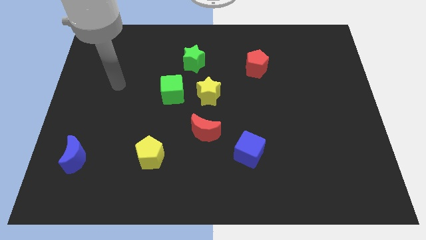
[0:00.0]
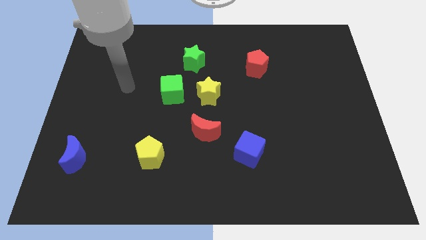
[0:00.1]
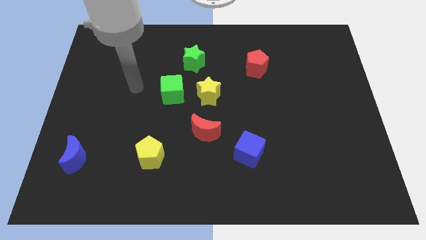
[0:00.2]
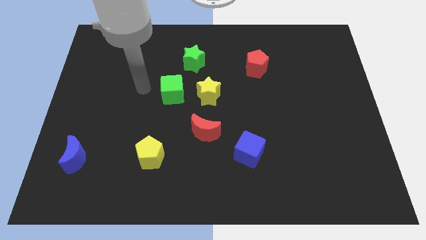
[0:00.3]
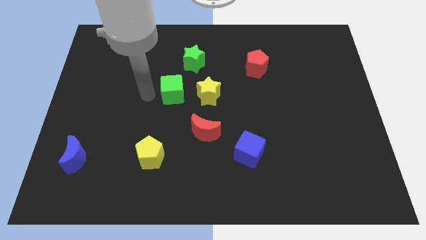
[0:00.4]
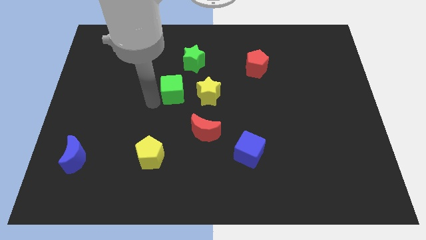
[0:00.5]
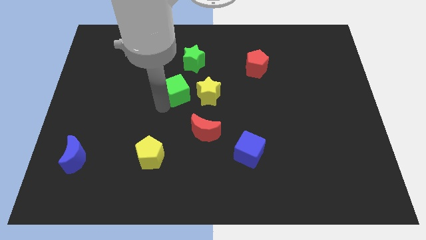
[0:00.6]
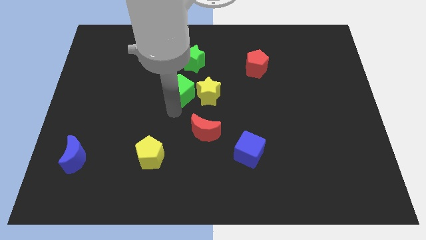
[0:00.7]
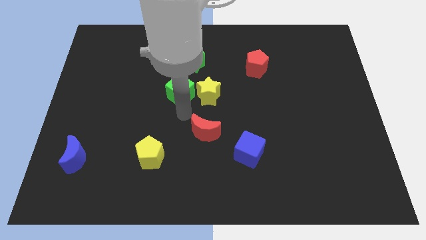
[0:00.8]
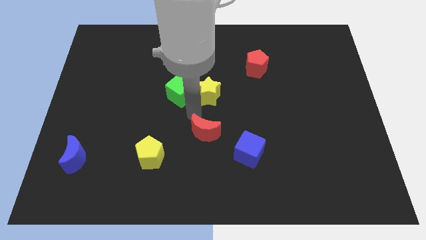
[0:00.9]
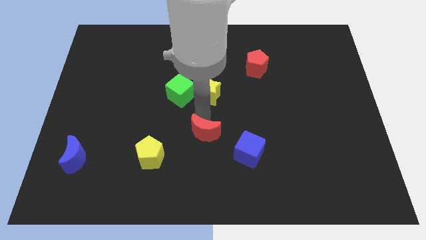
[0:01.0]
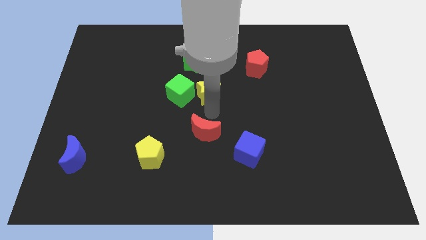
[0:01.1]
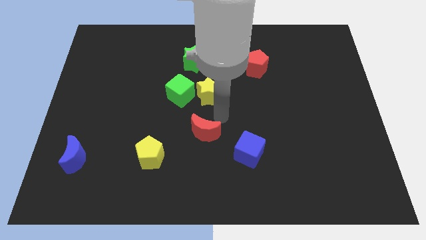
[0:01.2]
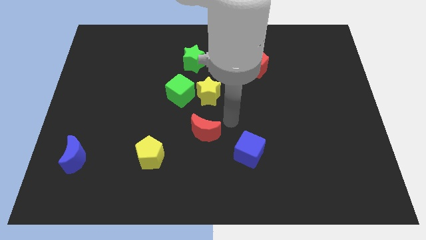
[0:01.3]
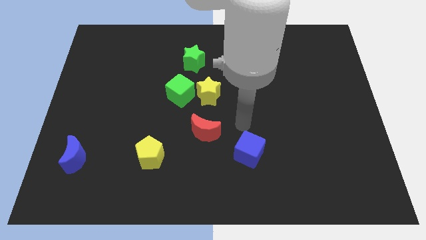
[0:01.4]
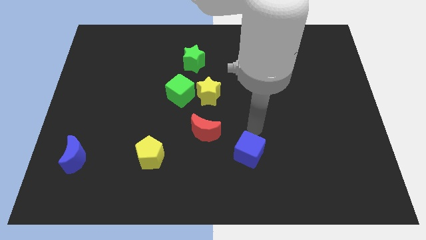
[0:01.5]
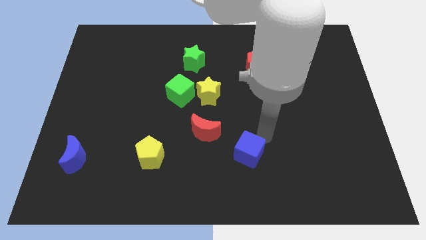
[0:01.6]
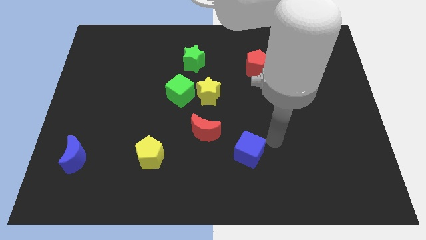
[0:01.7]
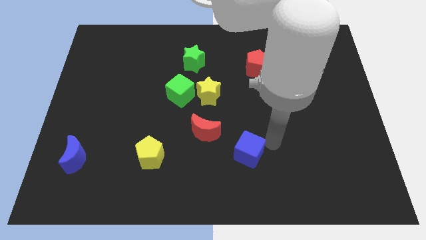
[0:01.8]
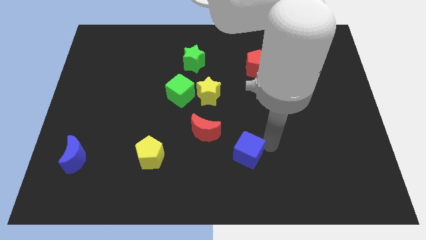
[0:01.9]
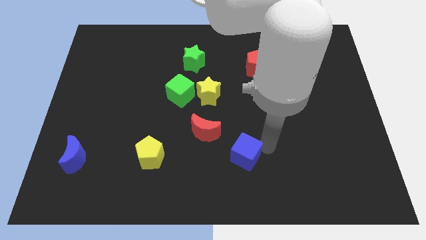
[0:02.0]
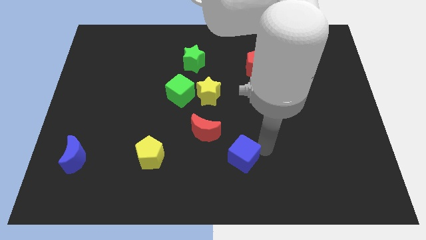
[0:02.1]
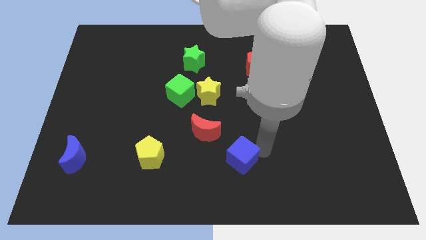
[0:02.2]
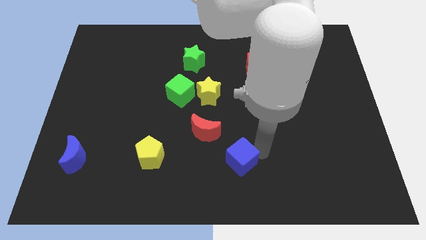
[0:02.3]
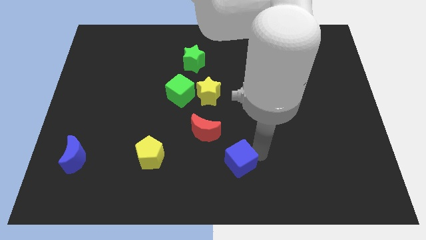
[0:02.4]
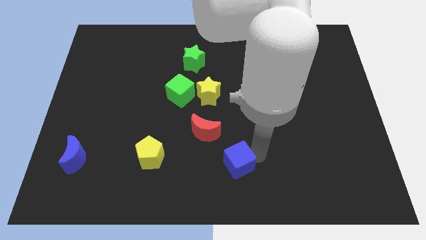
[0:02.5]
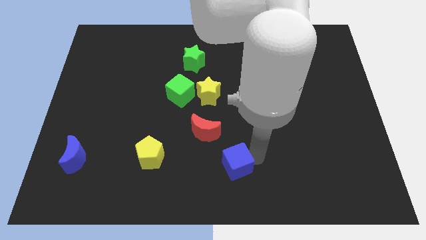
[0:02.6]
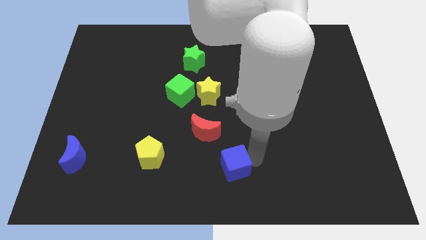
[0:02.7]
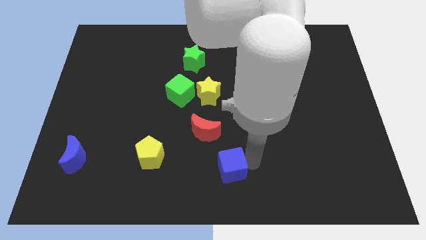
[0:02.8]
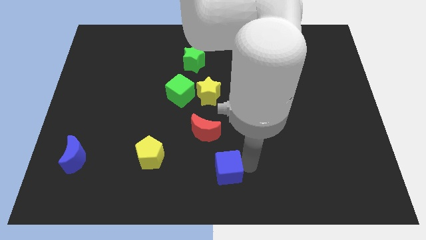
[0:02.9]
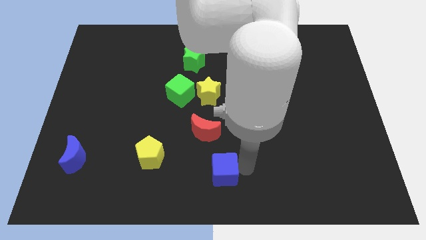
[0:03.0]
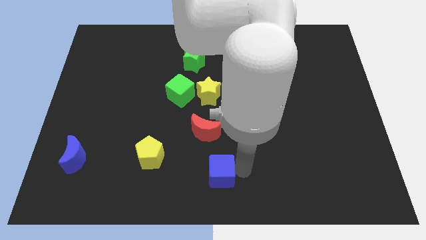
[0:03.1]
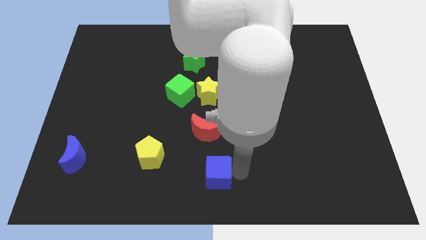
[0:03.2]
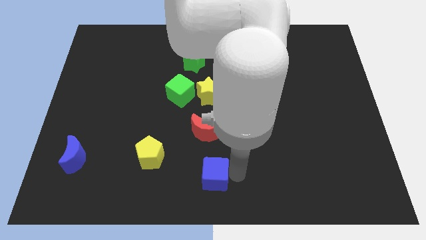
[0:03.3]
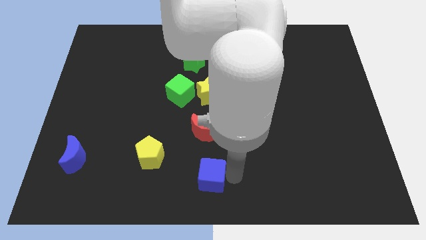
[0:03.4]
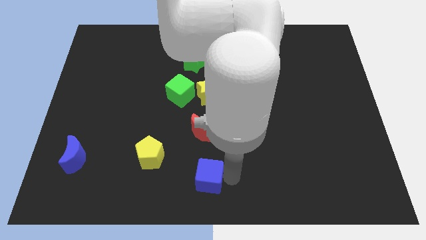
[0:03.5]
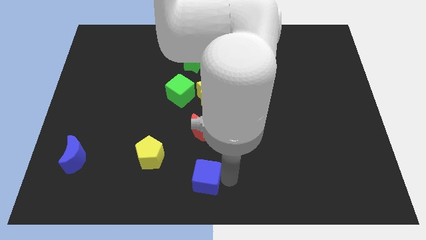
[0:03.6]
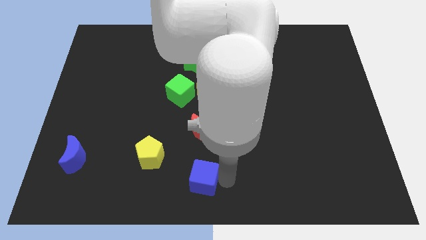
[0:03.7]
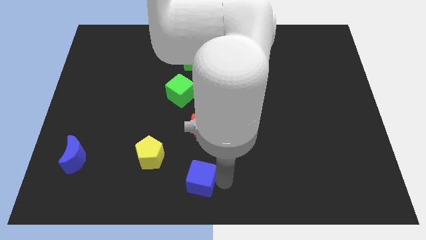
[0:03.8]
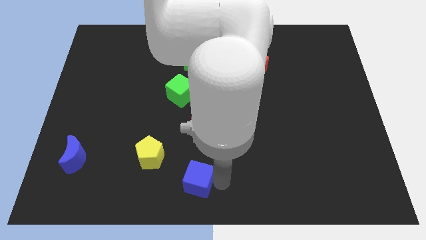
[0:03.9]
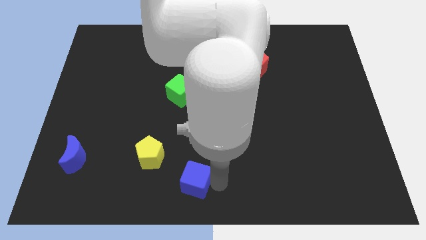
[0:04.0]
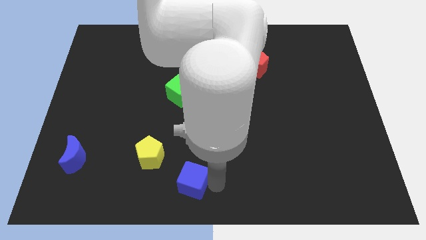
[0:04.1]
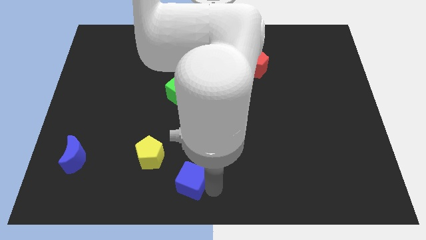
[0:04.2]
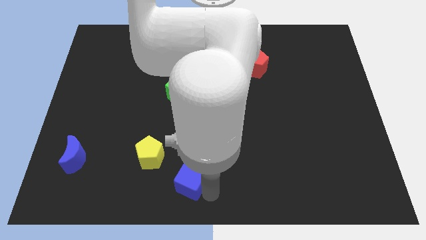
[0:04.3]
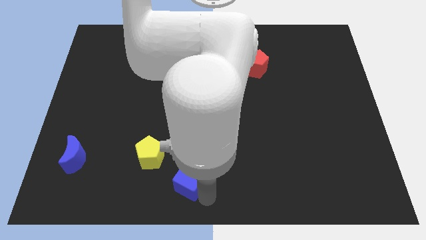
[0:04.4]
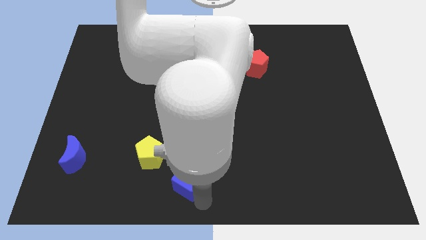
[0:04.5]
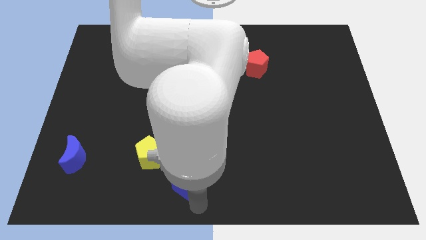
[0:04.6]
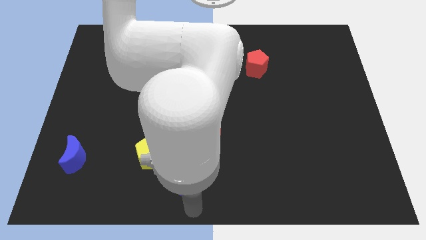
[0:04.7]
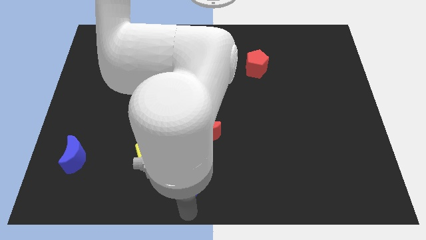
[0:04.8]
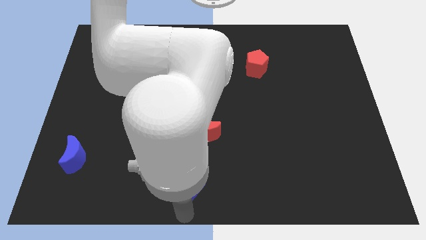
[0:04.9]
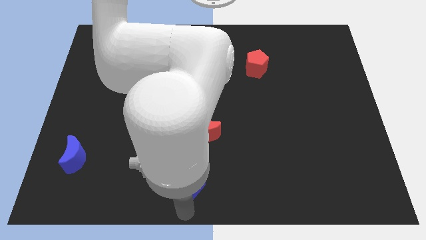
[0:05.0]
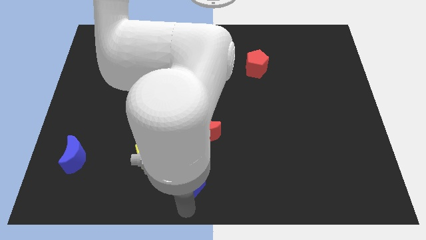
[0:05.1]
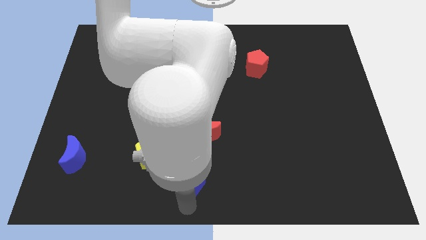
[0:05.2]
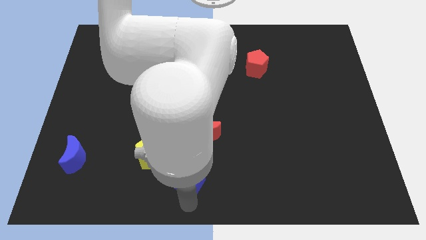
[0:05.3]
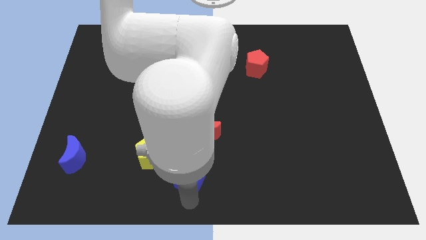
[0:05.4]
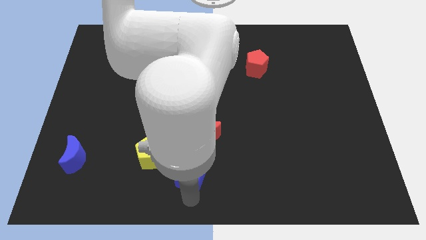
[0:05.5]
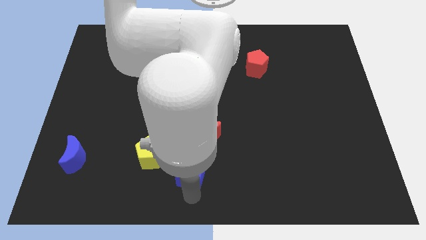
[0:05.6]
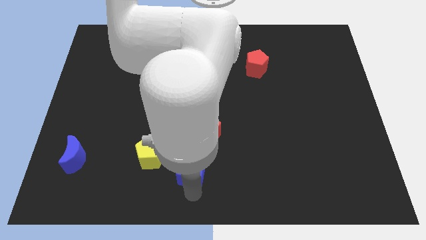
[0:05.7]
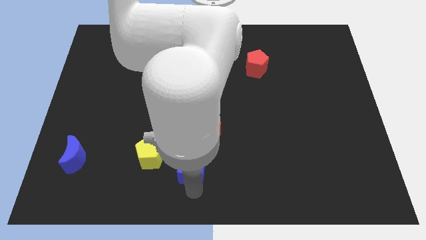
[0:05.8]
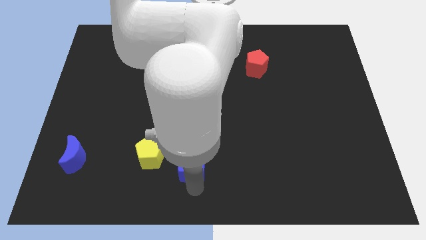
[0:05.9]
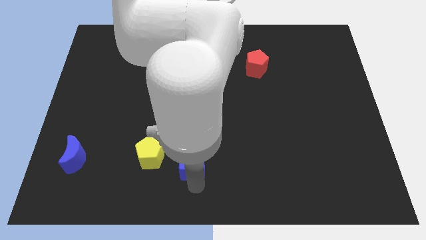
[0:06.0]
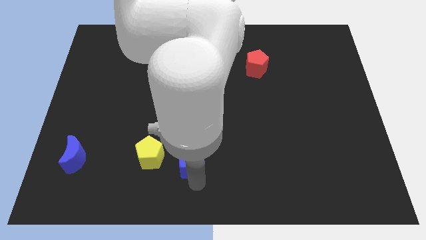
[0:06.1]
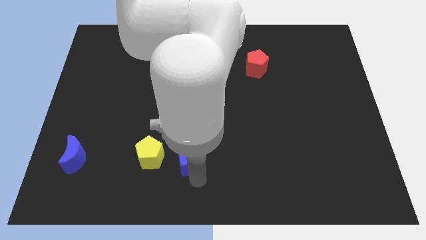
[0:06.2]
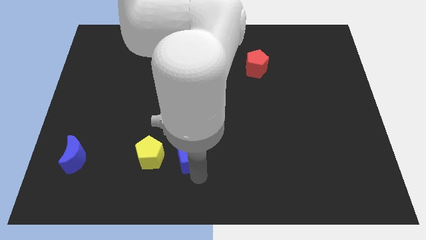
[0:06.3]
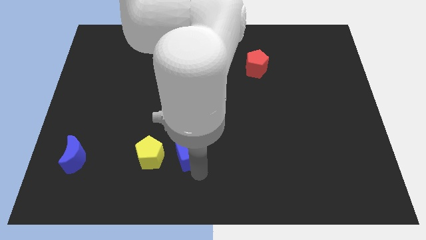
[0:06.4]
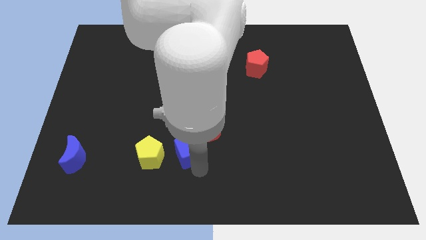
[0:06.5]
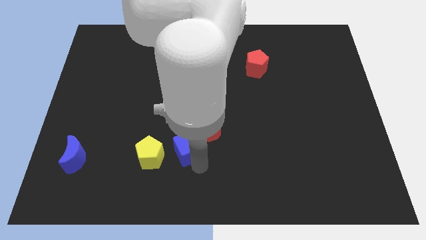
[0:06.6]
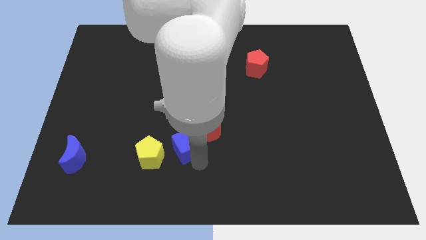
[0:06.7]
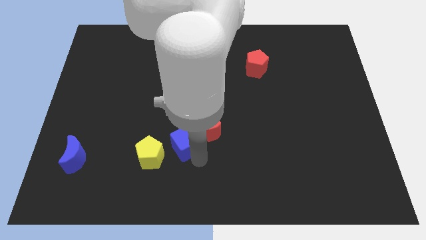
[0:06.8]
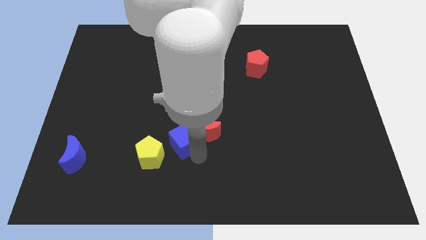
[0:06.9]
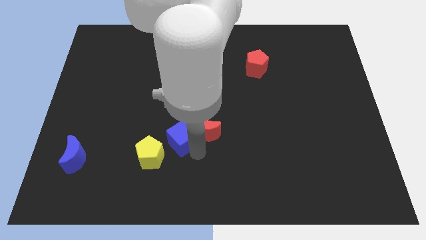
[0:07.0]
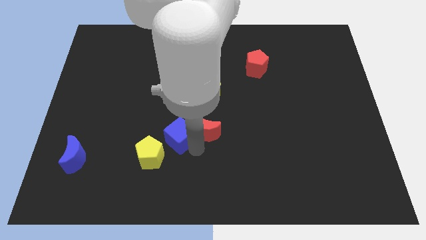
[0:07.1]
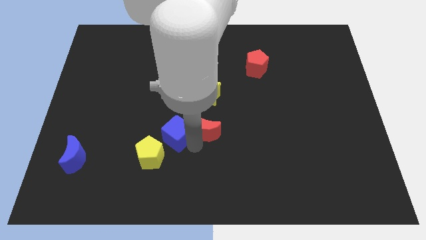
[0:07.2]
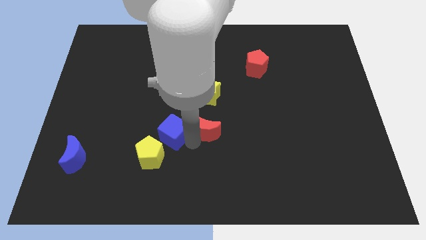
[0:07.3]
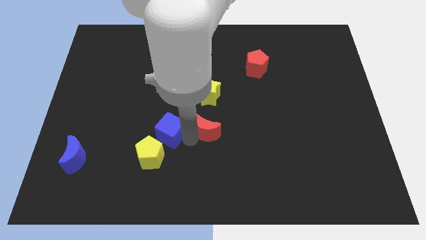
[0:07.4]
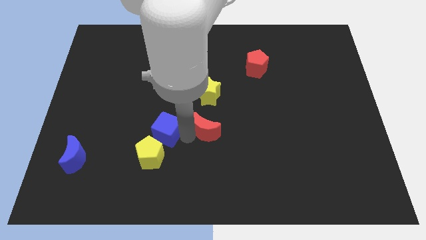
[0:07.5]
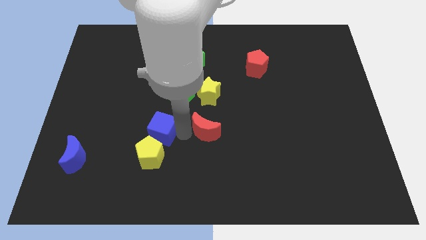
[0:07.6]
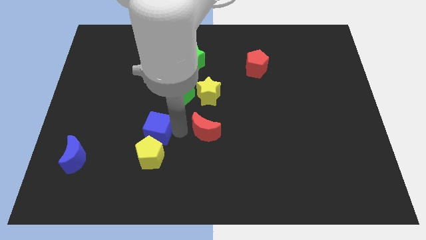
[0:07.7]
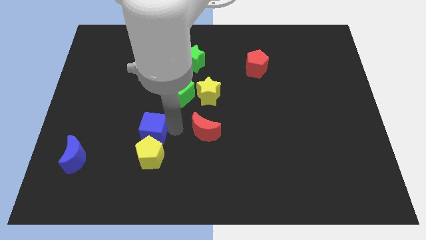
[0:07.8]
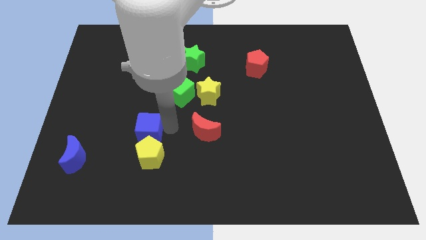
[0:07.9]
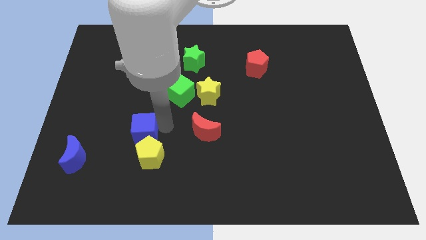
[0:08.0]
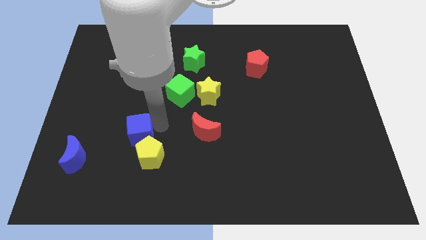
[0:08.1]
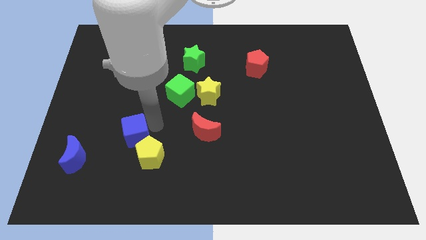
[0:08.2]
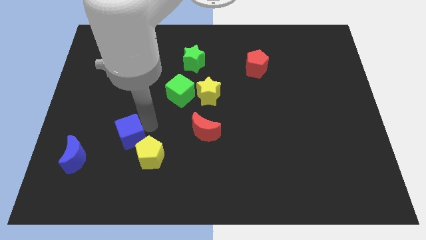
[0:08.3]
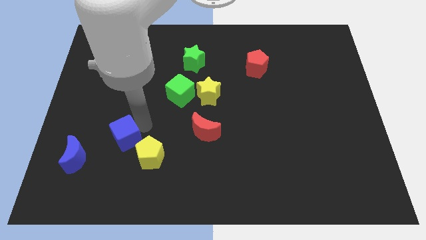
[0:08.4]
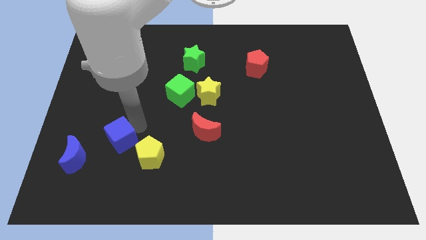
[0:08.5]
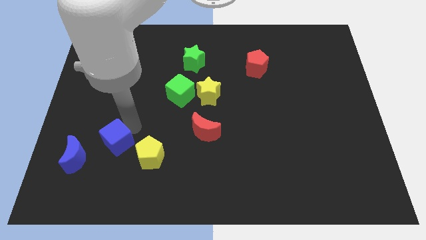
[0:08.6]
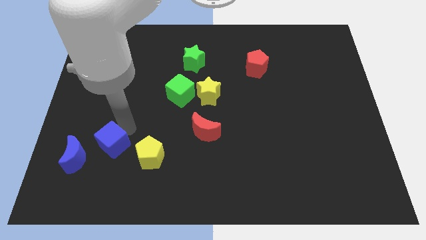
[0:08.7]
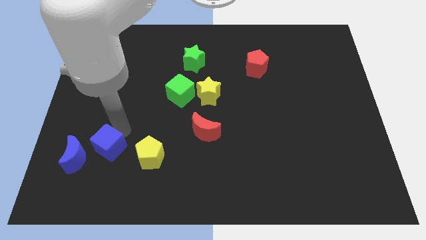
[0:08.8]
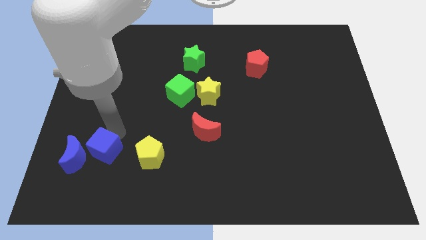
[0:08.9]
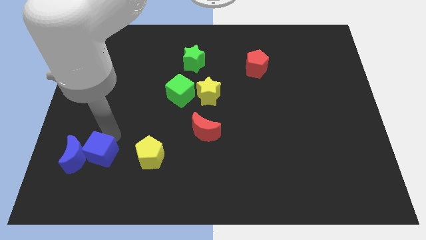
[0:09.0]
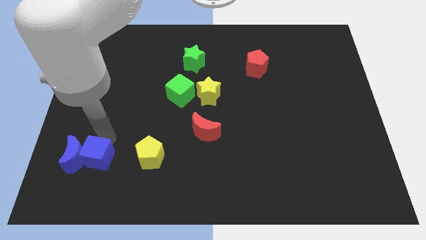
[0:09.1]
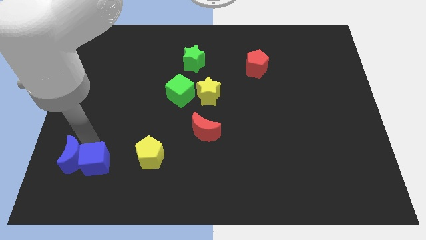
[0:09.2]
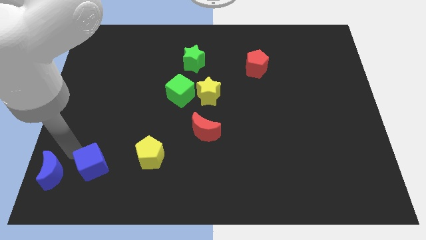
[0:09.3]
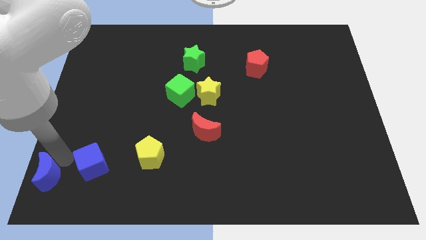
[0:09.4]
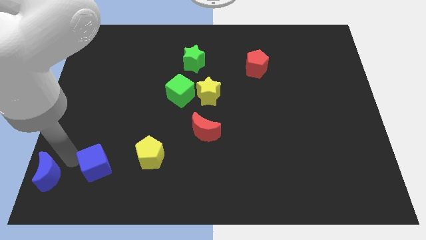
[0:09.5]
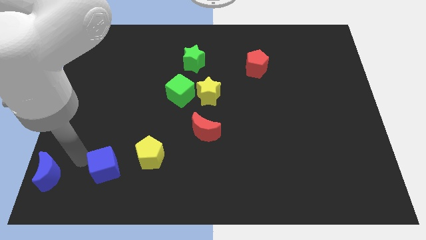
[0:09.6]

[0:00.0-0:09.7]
slide the blue cube diagonally down and to the left of the yellow pentagon
